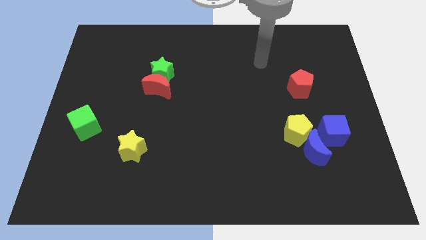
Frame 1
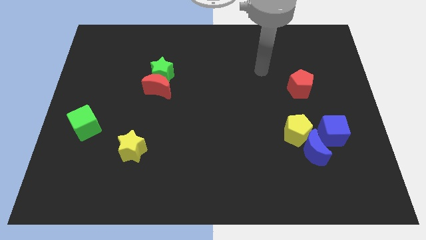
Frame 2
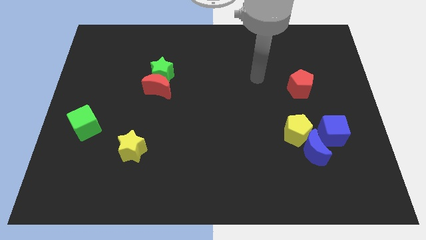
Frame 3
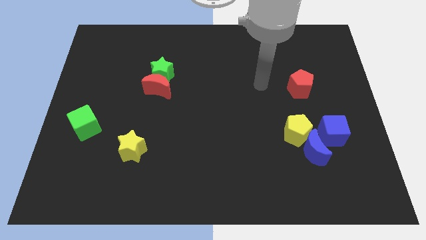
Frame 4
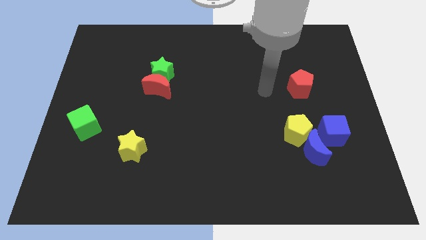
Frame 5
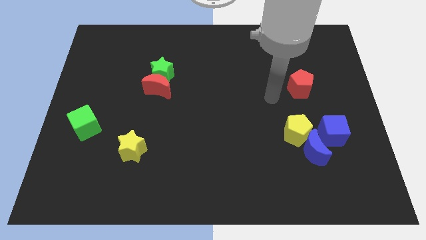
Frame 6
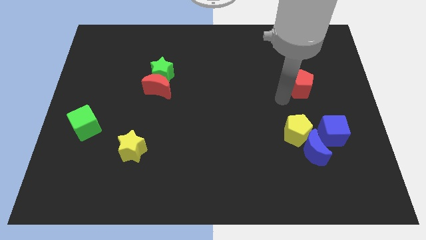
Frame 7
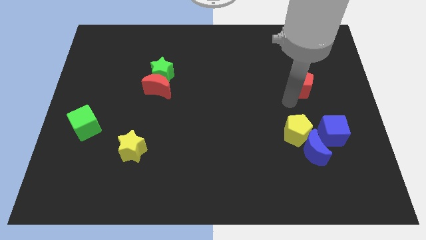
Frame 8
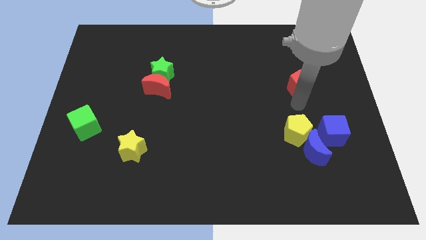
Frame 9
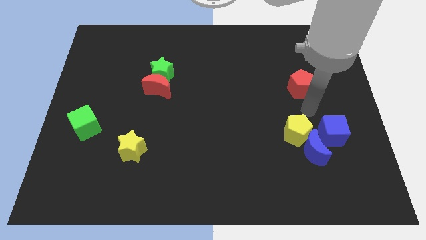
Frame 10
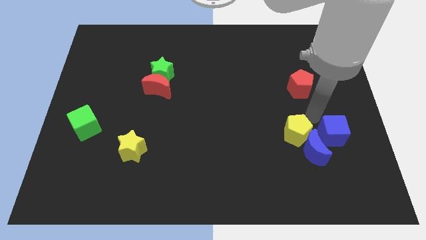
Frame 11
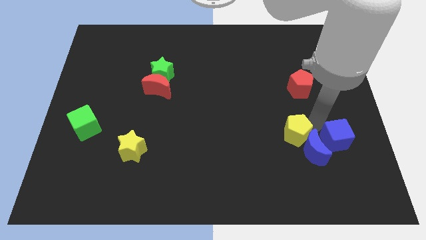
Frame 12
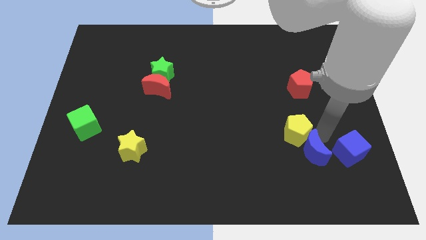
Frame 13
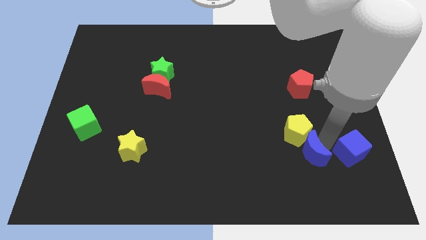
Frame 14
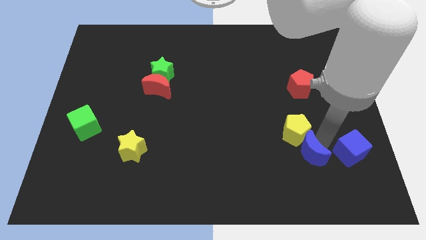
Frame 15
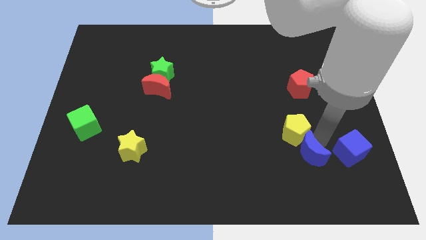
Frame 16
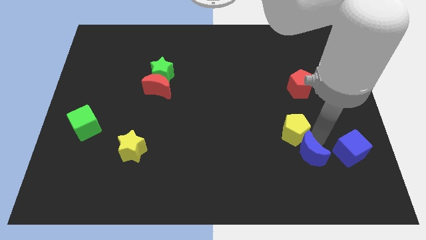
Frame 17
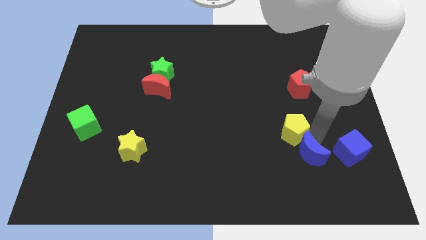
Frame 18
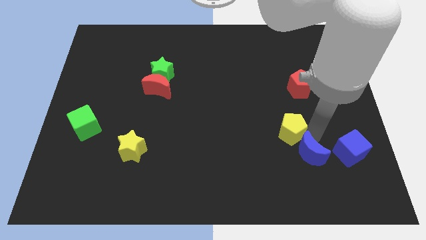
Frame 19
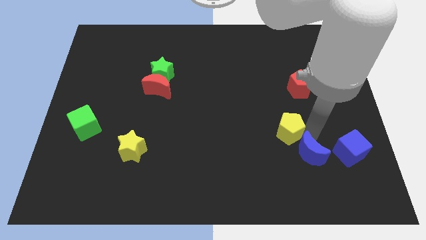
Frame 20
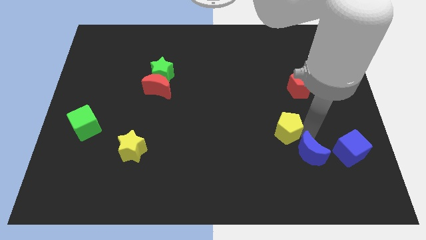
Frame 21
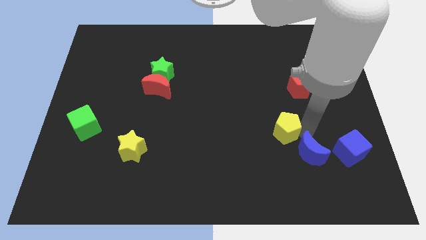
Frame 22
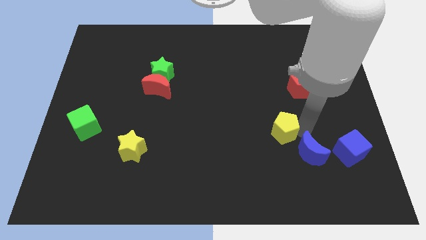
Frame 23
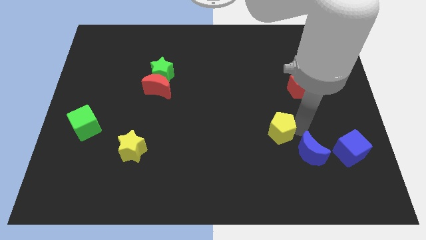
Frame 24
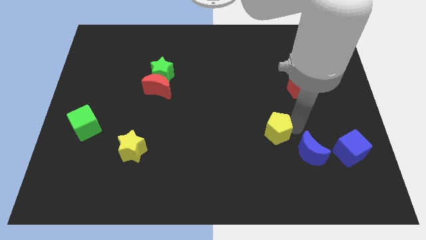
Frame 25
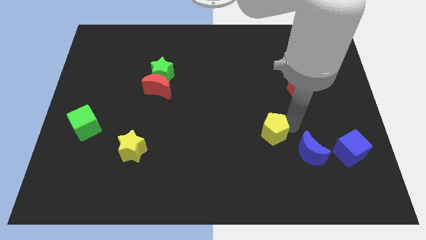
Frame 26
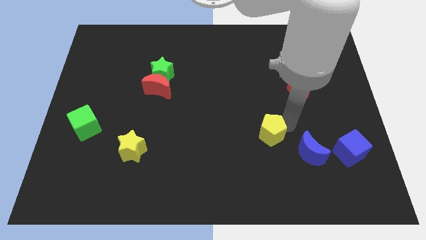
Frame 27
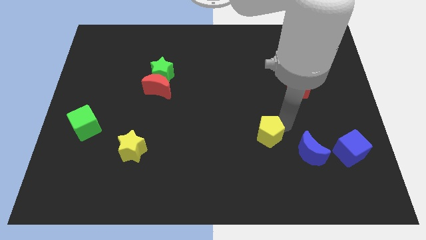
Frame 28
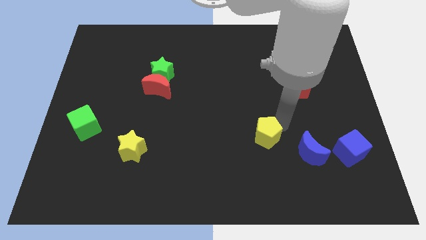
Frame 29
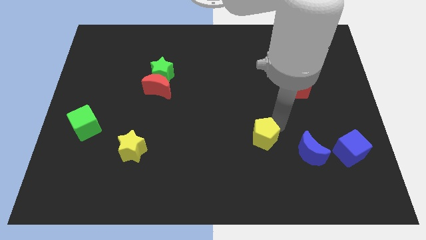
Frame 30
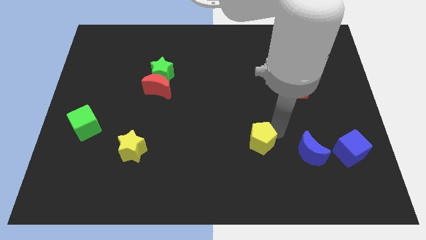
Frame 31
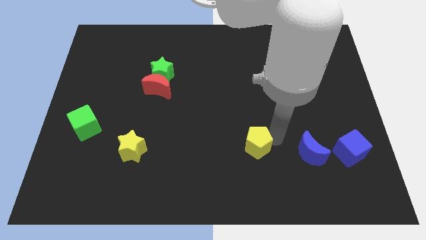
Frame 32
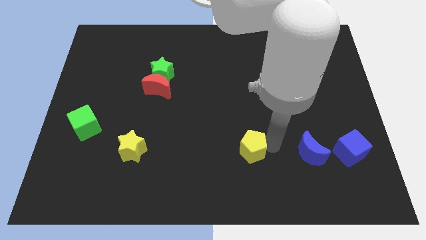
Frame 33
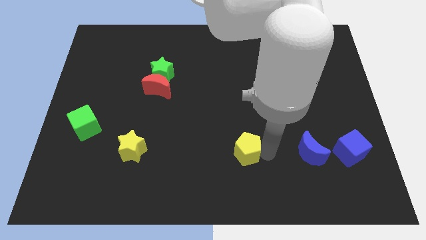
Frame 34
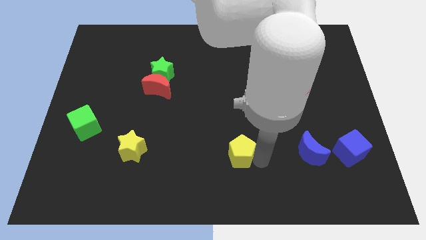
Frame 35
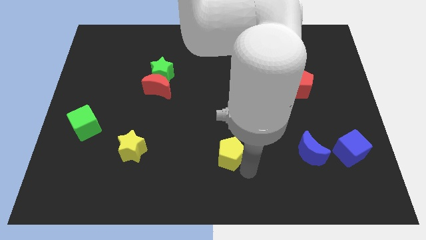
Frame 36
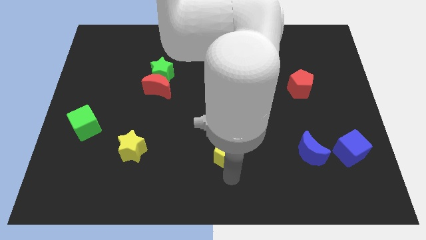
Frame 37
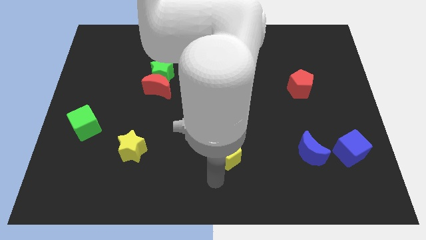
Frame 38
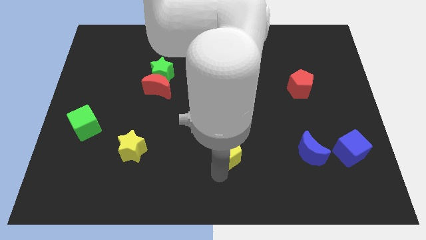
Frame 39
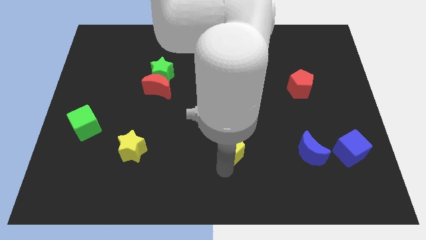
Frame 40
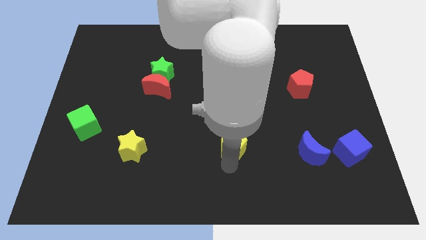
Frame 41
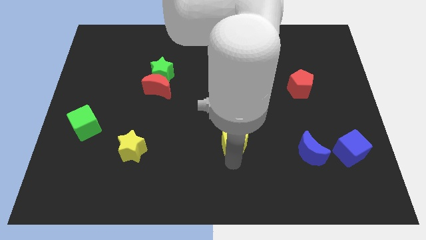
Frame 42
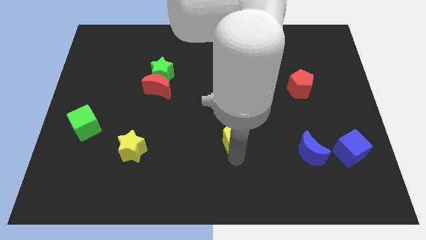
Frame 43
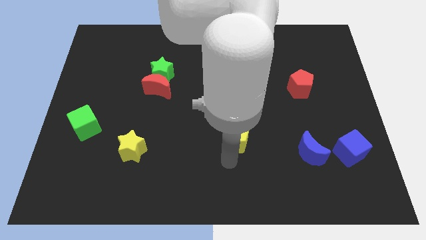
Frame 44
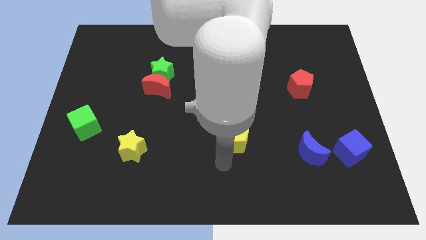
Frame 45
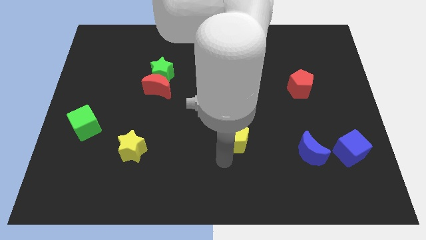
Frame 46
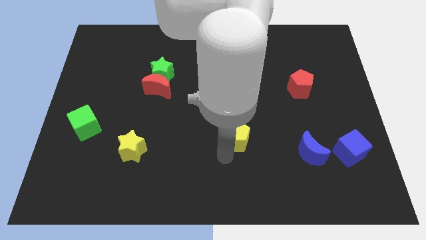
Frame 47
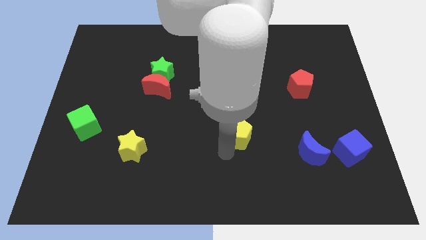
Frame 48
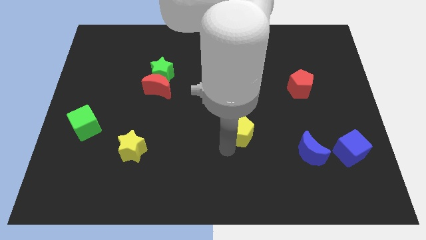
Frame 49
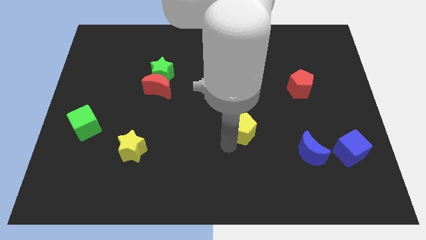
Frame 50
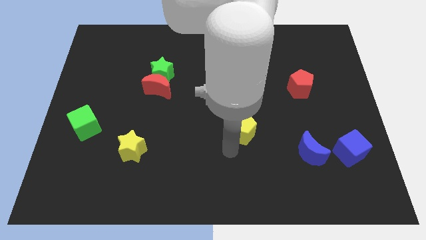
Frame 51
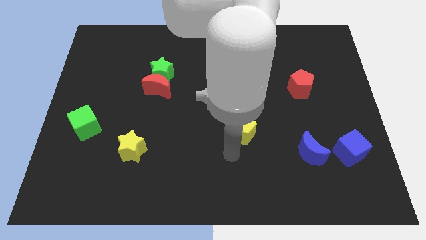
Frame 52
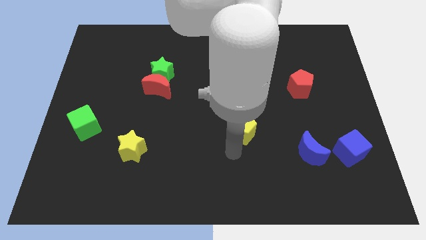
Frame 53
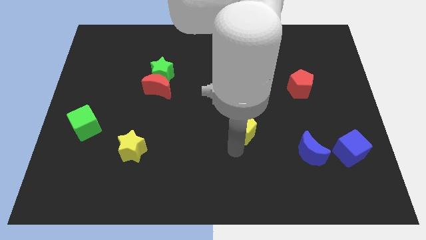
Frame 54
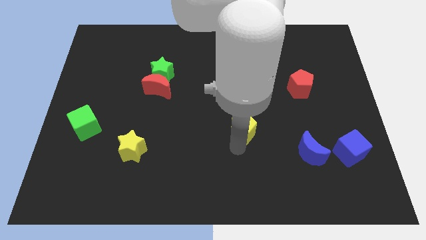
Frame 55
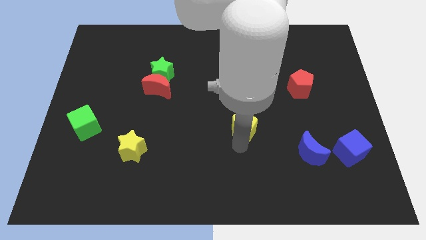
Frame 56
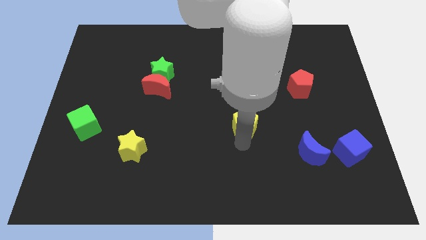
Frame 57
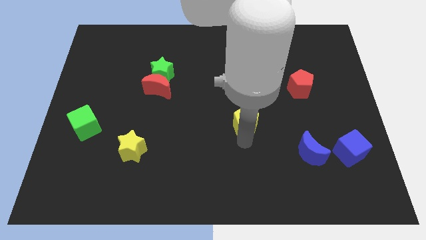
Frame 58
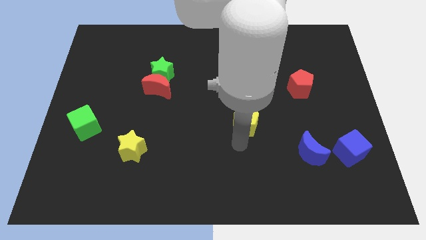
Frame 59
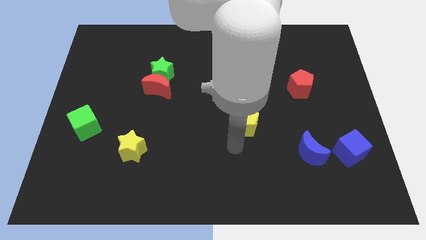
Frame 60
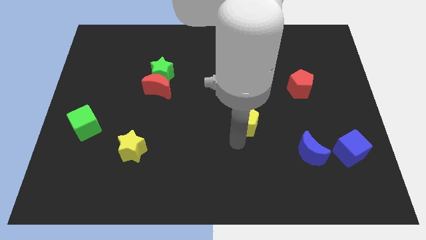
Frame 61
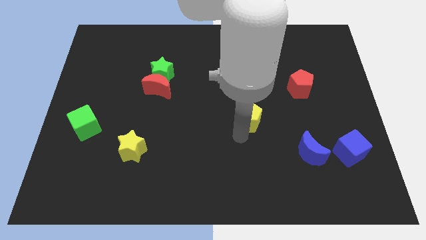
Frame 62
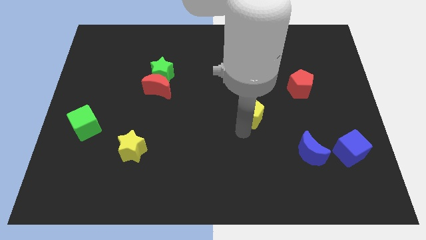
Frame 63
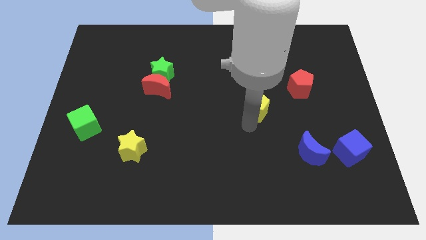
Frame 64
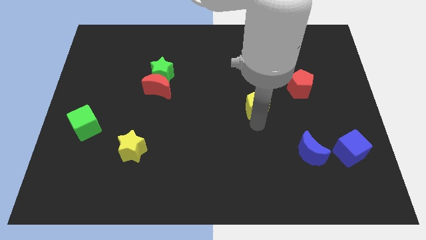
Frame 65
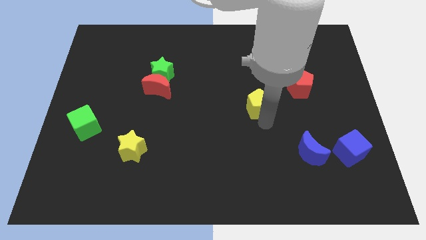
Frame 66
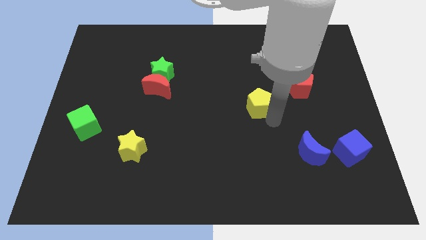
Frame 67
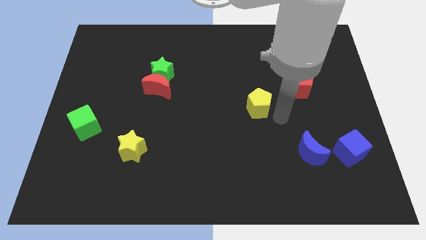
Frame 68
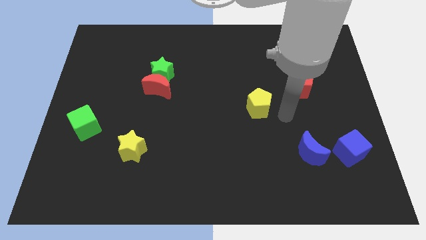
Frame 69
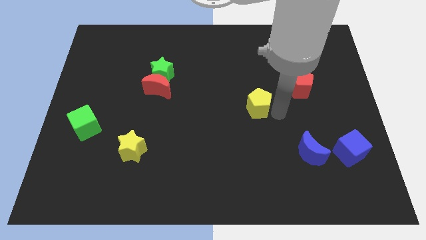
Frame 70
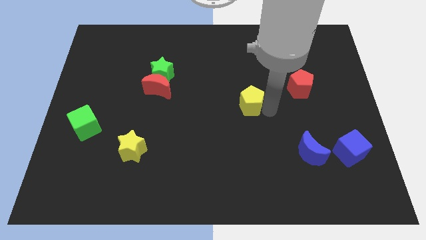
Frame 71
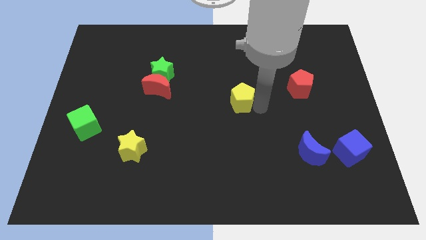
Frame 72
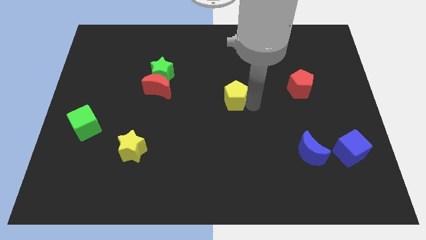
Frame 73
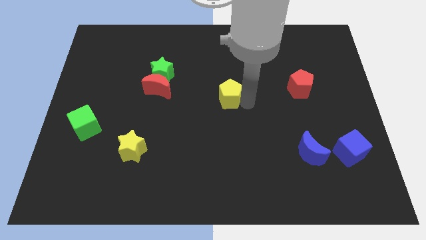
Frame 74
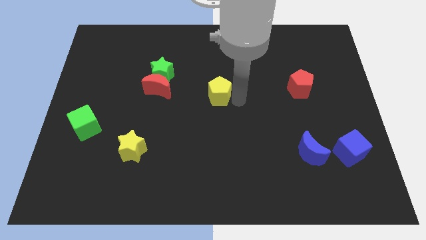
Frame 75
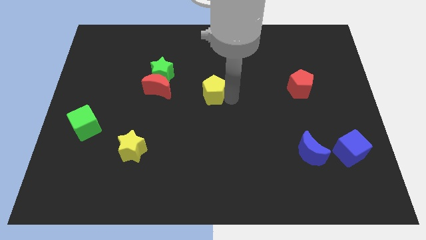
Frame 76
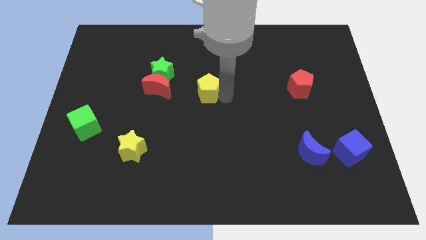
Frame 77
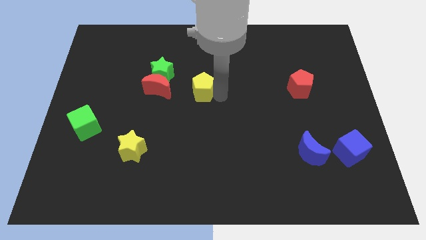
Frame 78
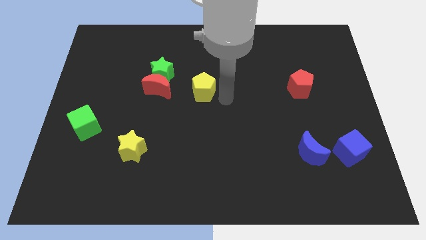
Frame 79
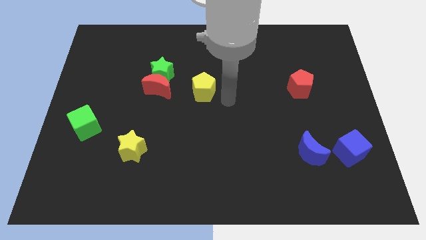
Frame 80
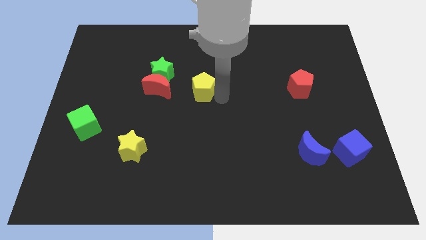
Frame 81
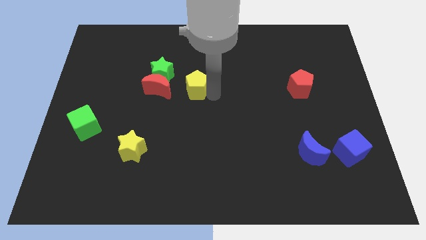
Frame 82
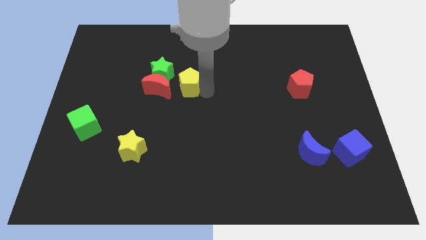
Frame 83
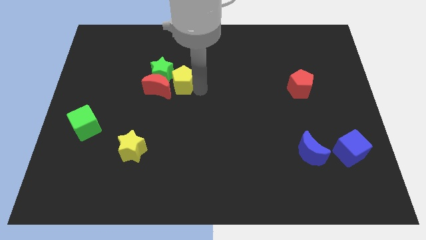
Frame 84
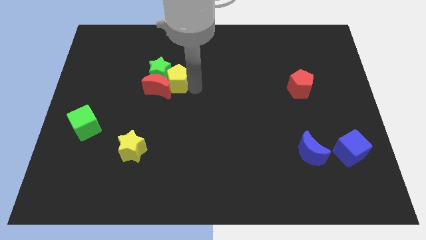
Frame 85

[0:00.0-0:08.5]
put the yellow pentagon to the green star
